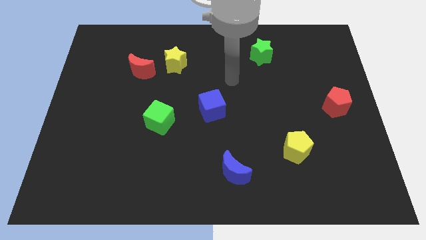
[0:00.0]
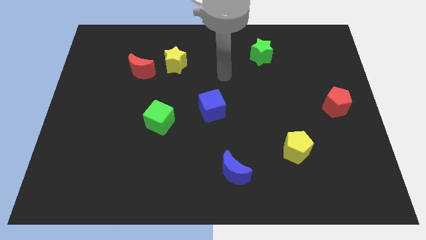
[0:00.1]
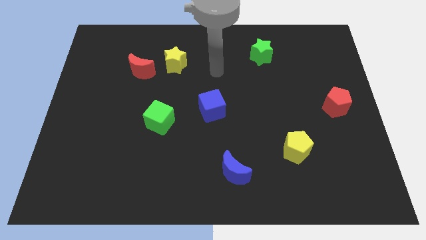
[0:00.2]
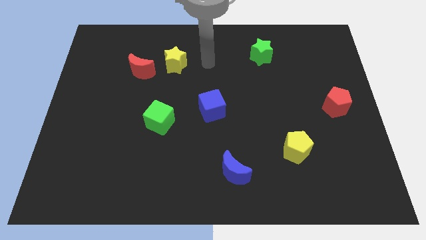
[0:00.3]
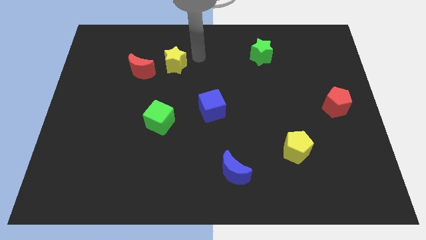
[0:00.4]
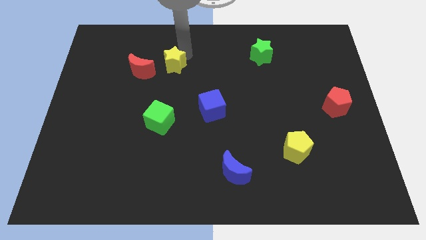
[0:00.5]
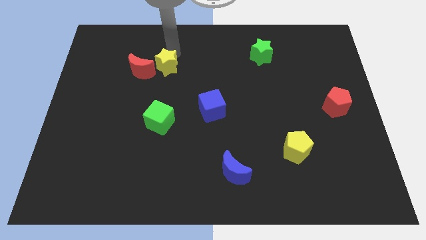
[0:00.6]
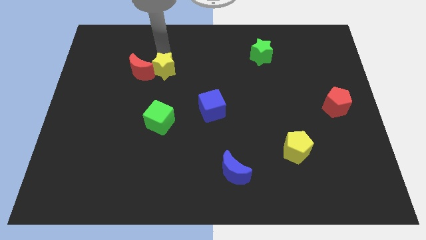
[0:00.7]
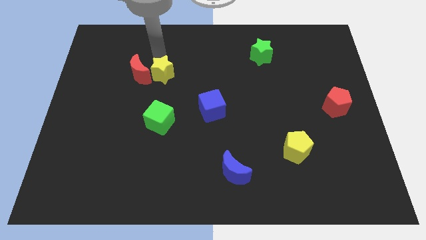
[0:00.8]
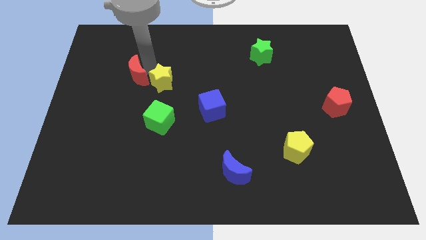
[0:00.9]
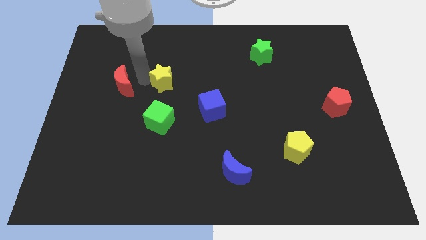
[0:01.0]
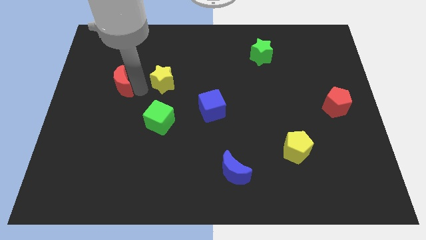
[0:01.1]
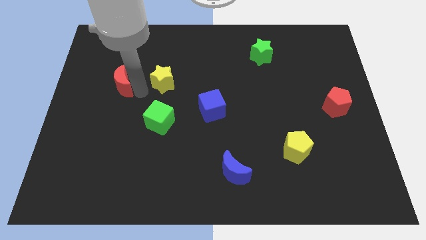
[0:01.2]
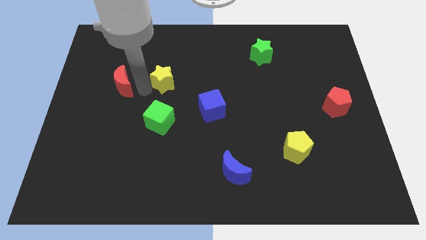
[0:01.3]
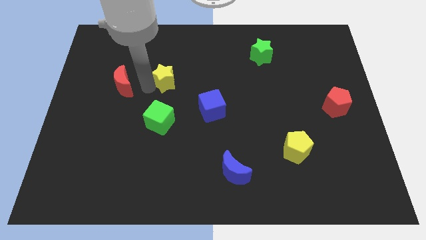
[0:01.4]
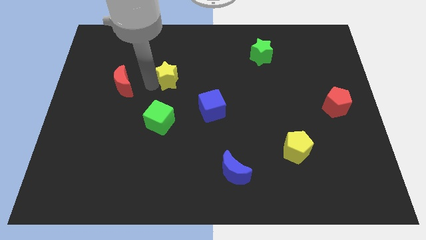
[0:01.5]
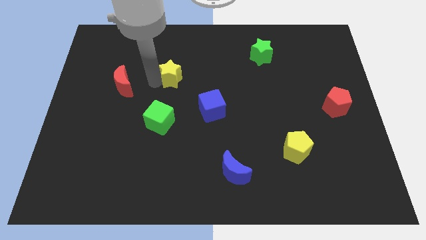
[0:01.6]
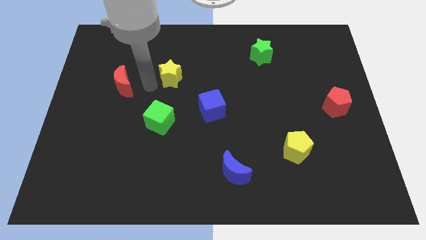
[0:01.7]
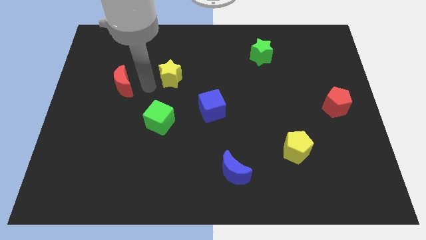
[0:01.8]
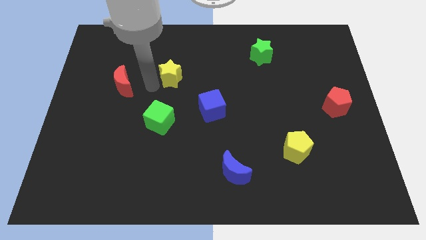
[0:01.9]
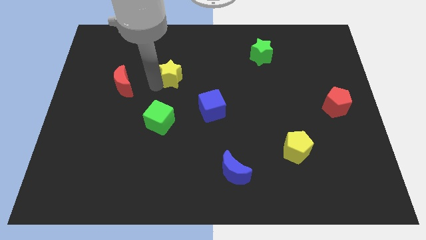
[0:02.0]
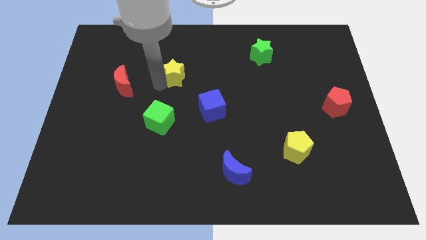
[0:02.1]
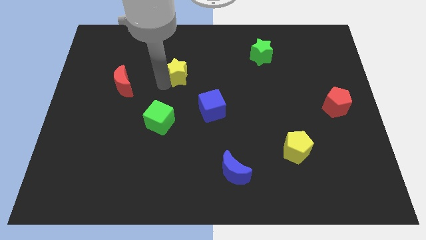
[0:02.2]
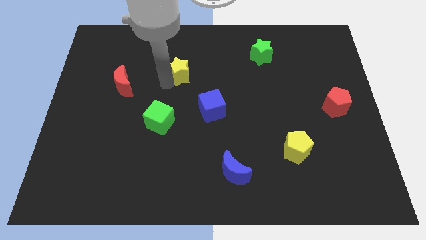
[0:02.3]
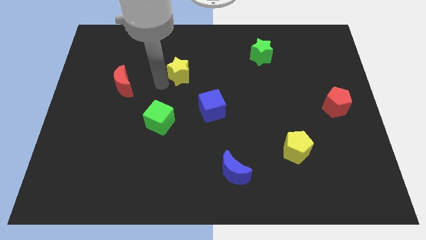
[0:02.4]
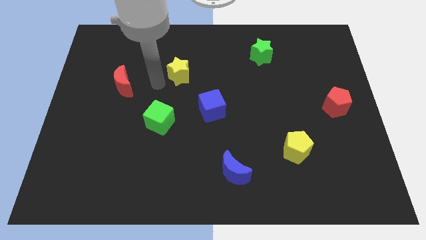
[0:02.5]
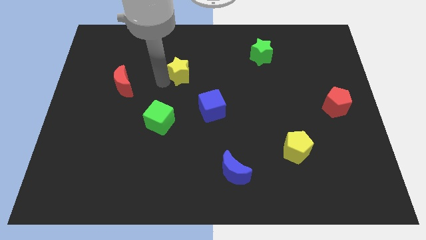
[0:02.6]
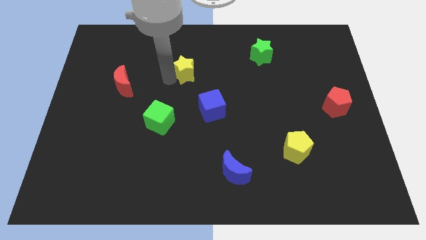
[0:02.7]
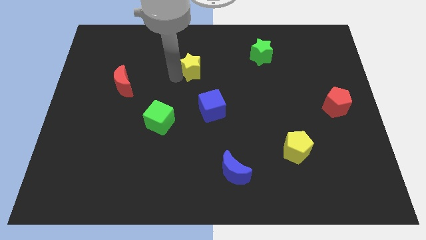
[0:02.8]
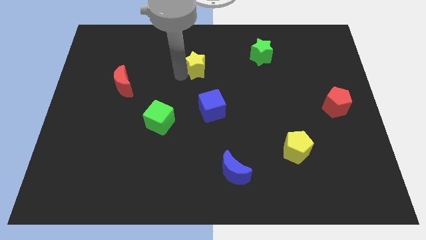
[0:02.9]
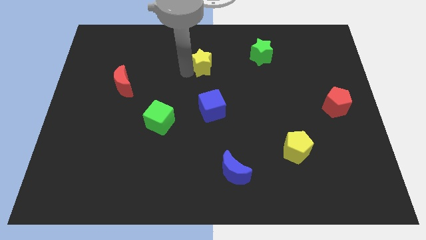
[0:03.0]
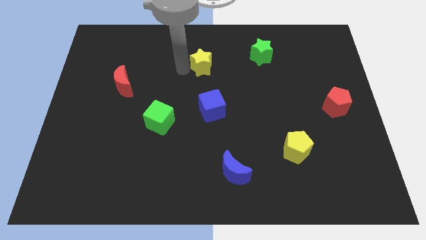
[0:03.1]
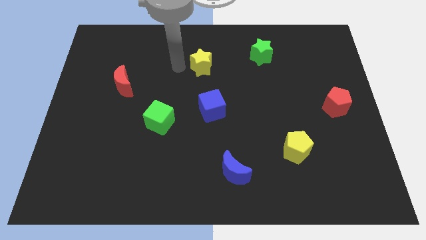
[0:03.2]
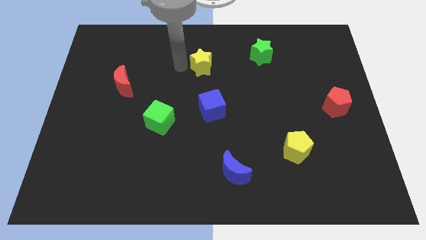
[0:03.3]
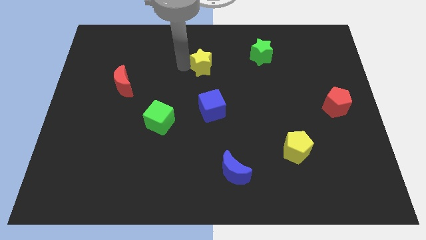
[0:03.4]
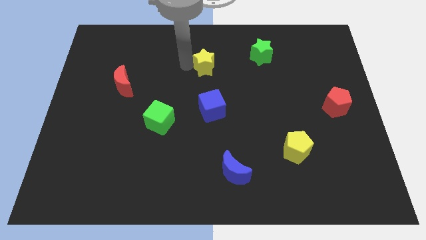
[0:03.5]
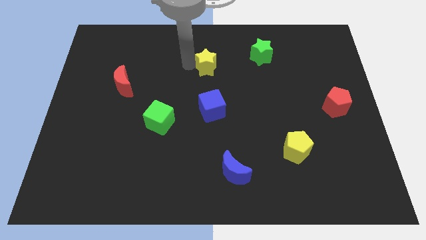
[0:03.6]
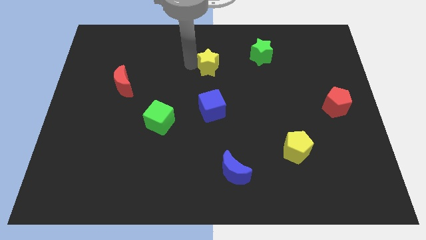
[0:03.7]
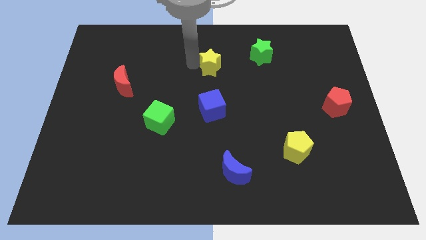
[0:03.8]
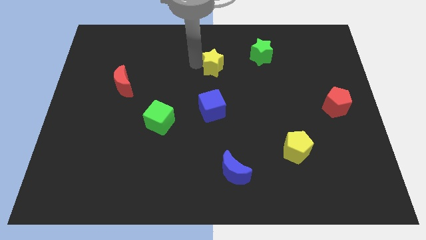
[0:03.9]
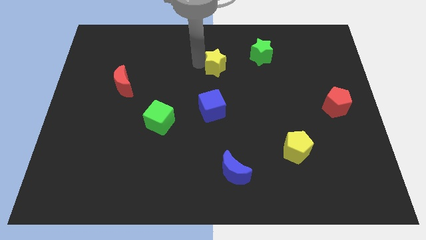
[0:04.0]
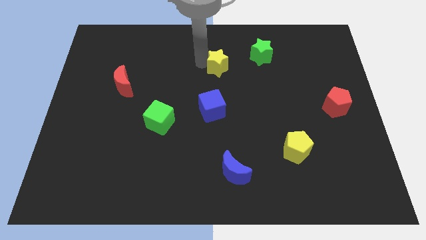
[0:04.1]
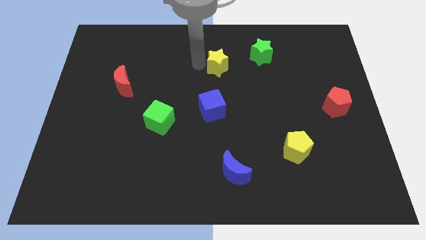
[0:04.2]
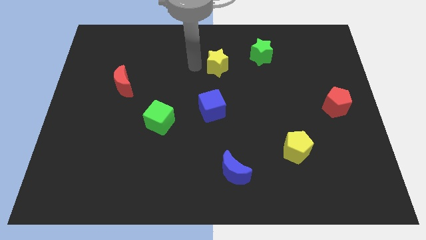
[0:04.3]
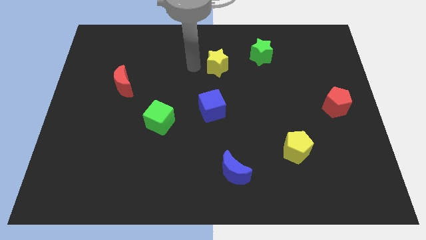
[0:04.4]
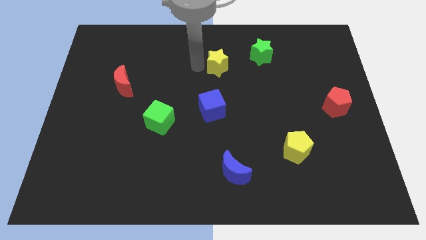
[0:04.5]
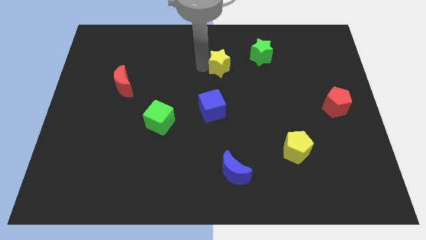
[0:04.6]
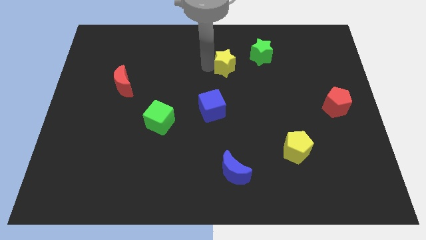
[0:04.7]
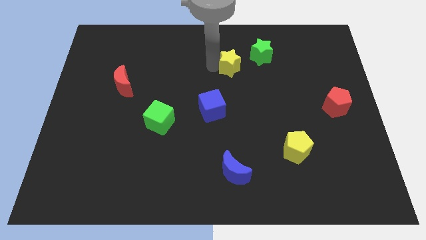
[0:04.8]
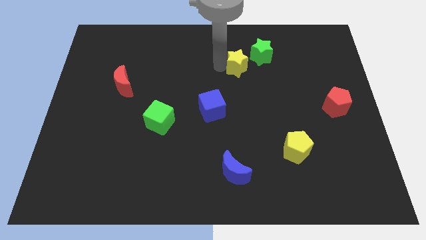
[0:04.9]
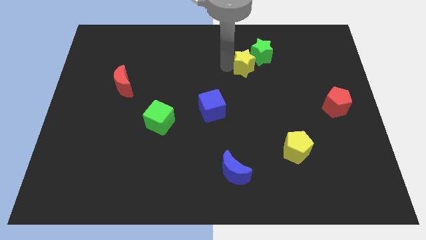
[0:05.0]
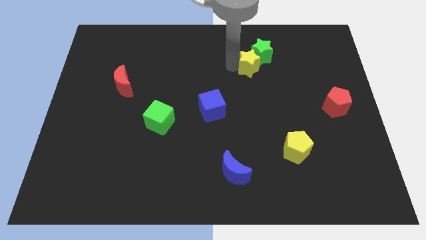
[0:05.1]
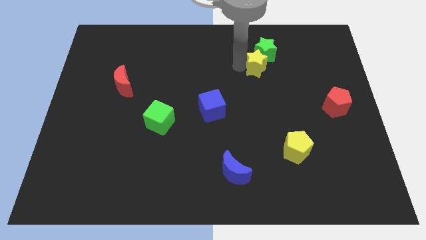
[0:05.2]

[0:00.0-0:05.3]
move the yellow star right

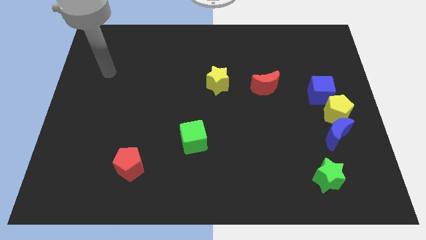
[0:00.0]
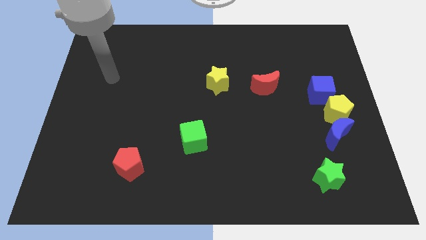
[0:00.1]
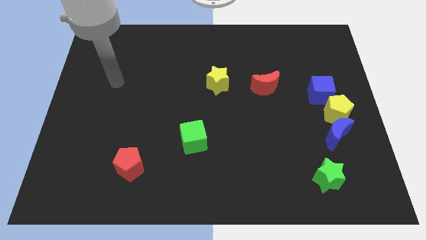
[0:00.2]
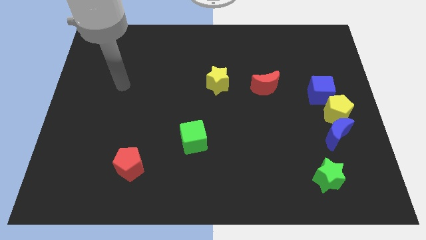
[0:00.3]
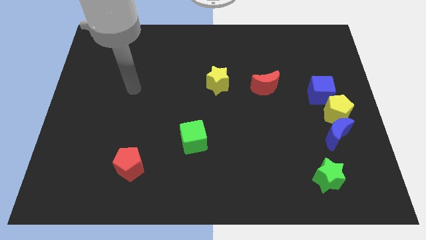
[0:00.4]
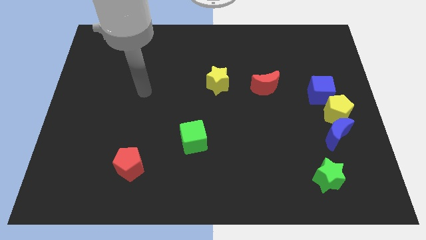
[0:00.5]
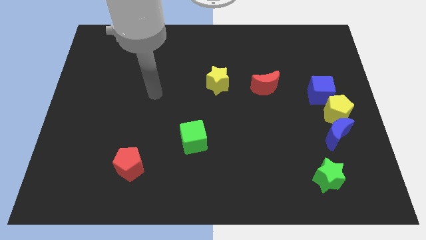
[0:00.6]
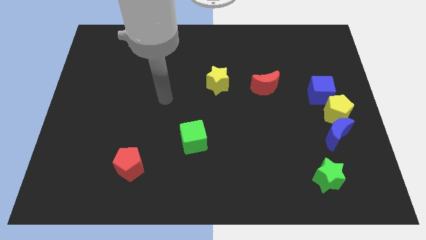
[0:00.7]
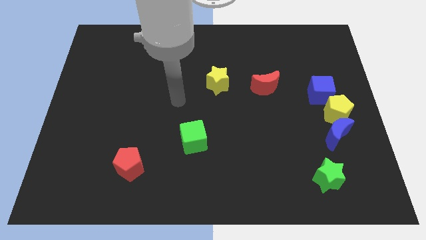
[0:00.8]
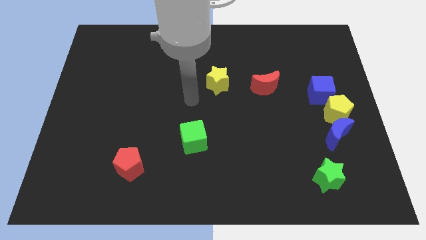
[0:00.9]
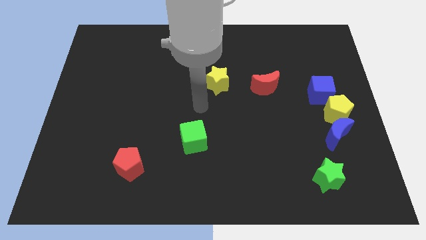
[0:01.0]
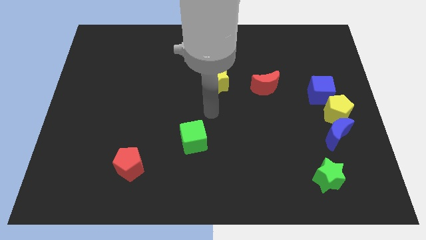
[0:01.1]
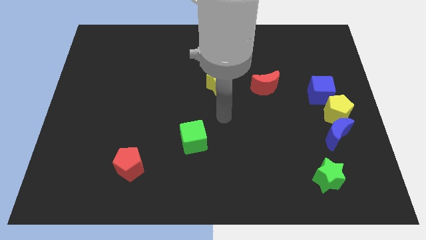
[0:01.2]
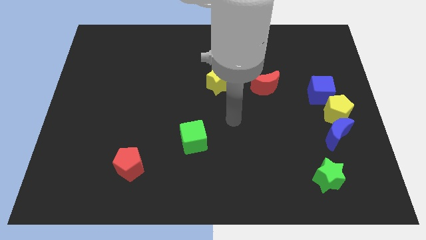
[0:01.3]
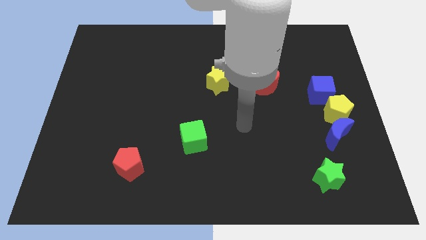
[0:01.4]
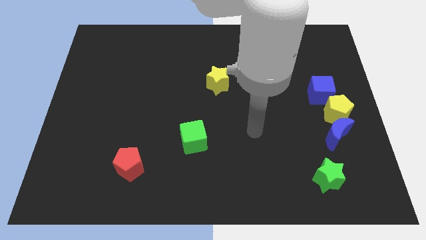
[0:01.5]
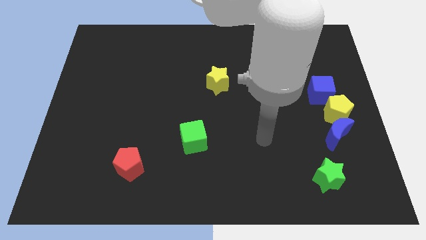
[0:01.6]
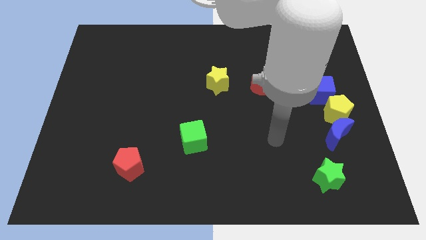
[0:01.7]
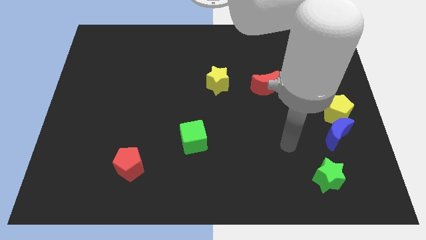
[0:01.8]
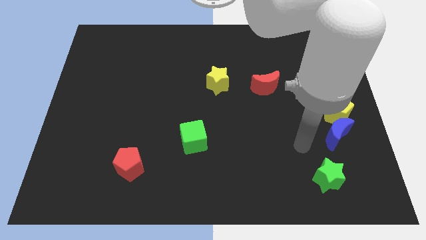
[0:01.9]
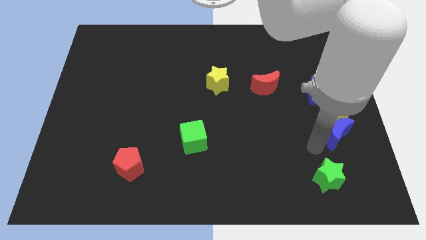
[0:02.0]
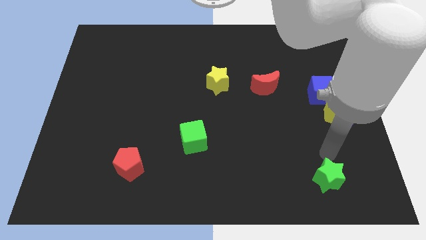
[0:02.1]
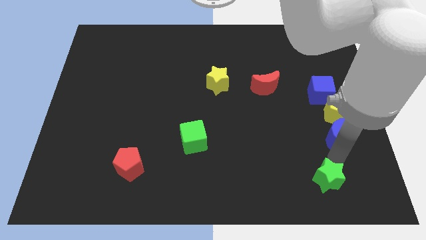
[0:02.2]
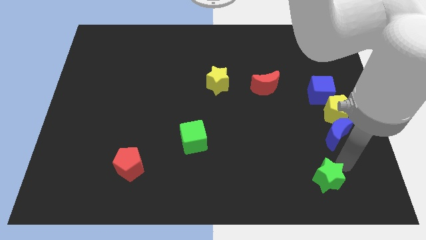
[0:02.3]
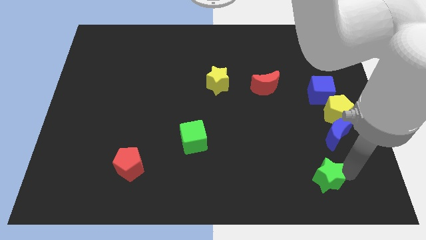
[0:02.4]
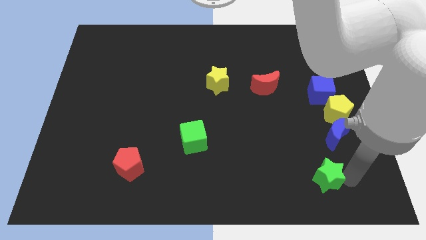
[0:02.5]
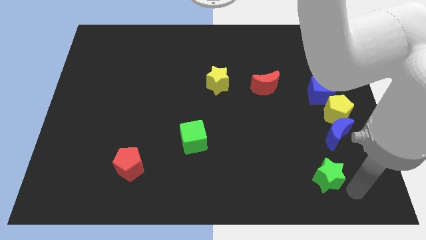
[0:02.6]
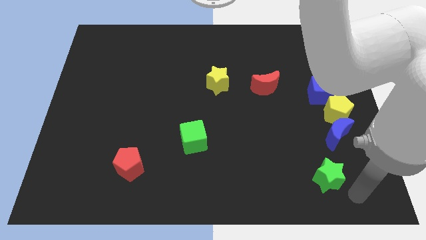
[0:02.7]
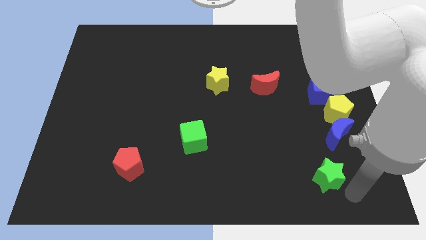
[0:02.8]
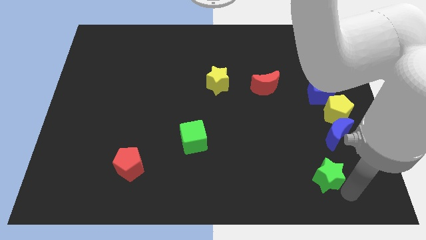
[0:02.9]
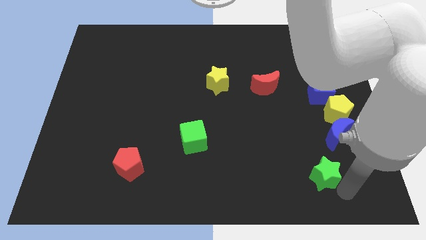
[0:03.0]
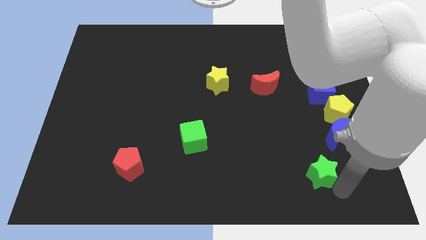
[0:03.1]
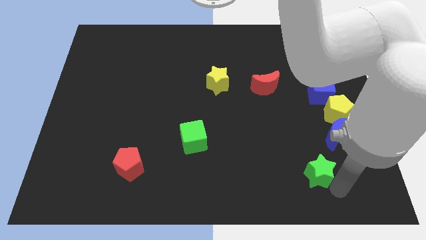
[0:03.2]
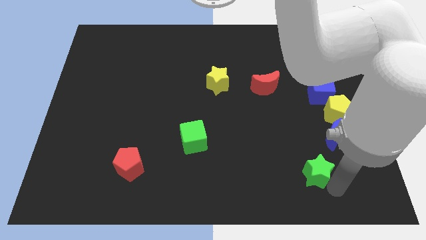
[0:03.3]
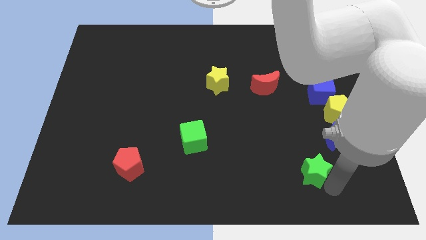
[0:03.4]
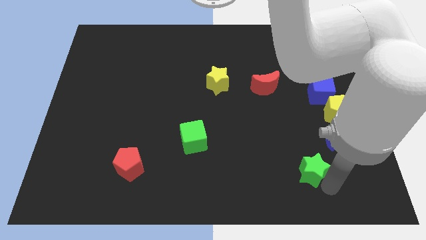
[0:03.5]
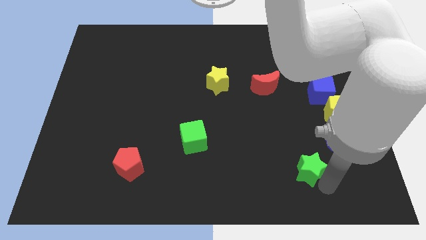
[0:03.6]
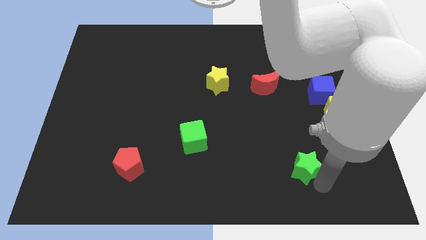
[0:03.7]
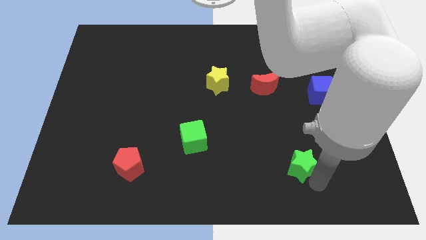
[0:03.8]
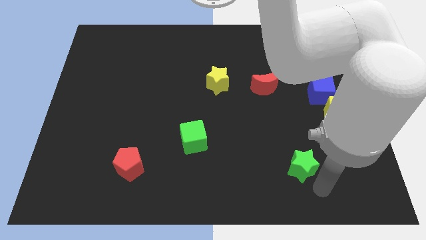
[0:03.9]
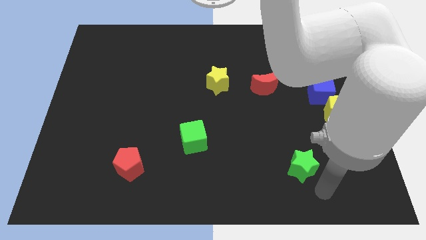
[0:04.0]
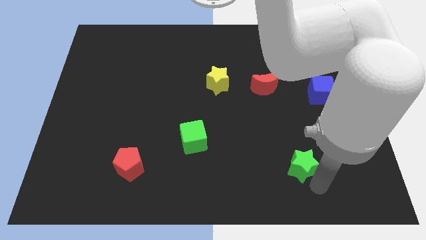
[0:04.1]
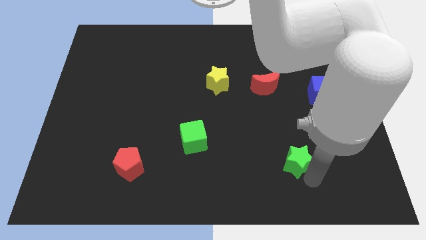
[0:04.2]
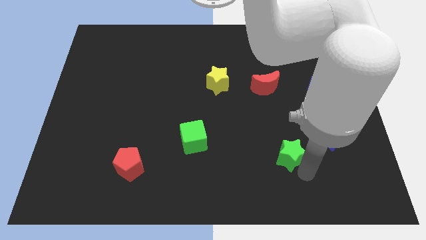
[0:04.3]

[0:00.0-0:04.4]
push the green star upwards and left diagonally a little bit
